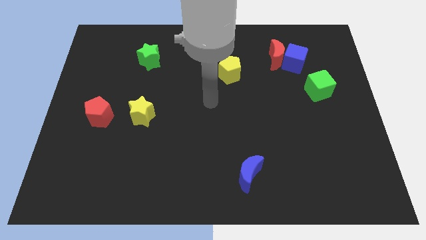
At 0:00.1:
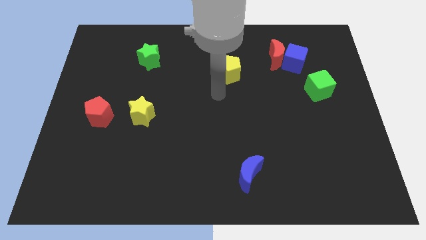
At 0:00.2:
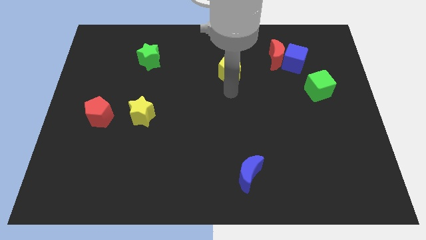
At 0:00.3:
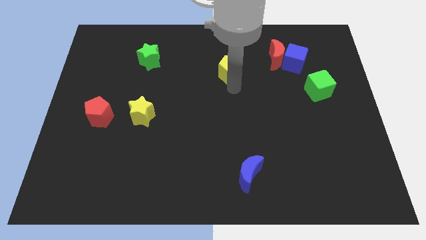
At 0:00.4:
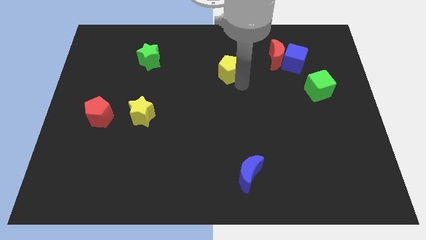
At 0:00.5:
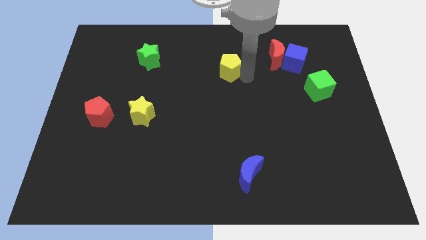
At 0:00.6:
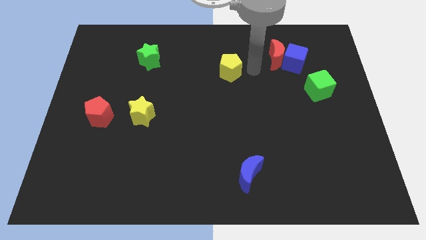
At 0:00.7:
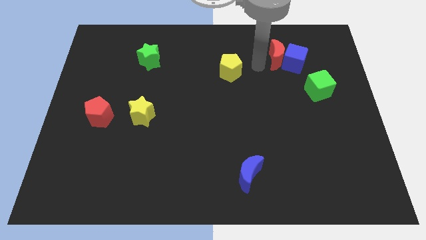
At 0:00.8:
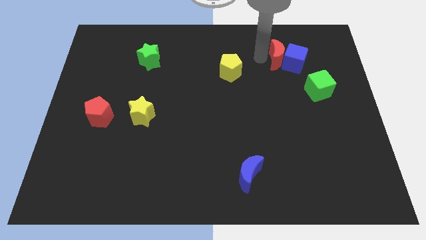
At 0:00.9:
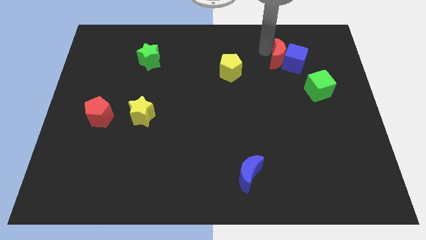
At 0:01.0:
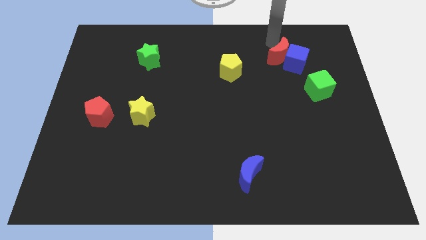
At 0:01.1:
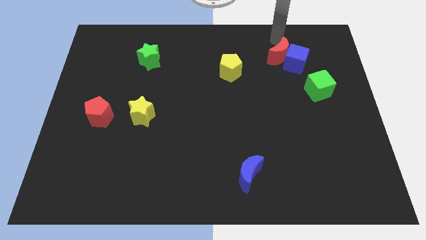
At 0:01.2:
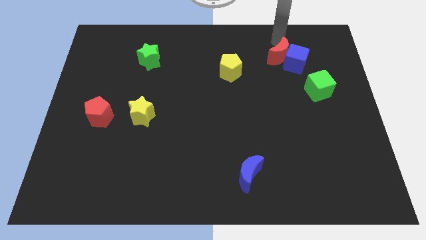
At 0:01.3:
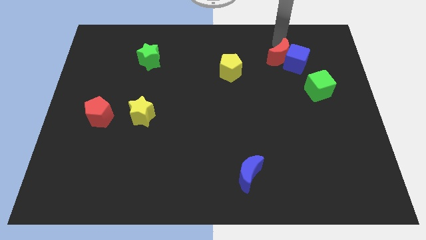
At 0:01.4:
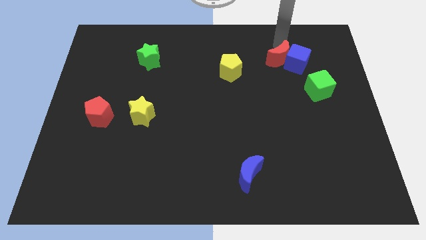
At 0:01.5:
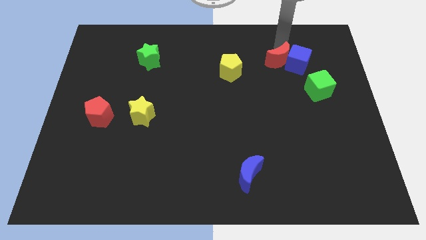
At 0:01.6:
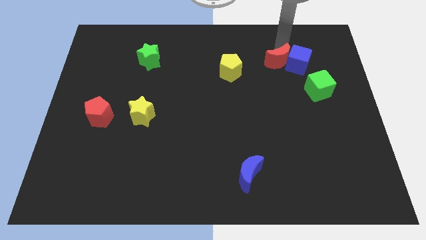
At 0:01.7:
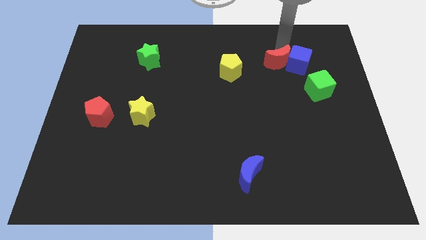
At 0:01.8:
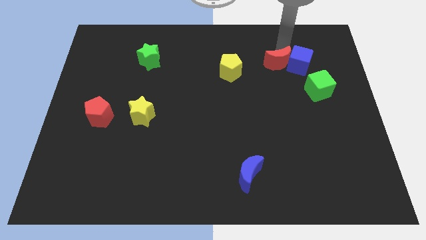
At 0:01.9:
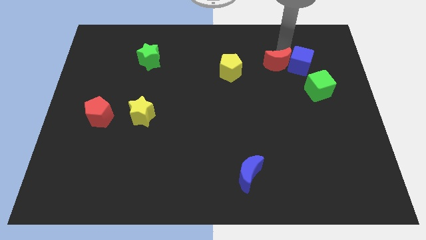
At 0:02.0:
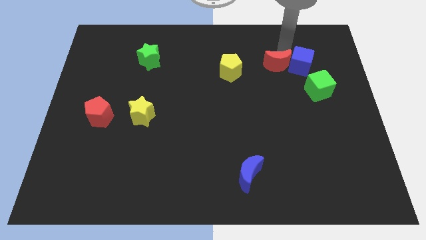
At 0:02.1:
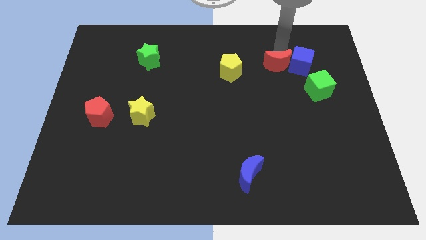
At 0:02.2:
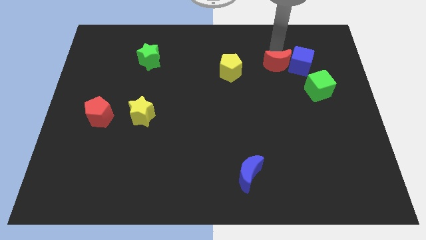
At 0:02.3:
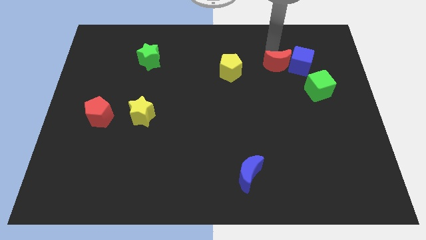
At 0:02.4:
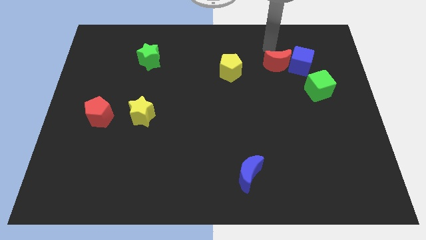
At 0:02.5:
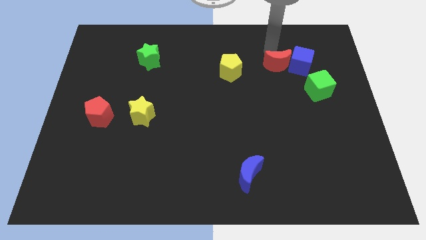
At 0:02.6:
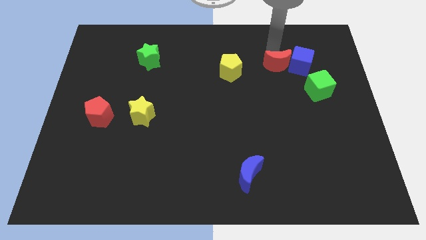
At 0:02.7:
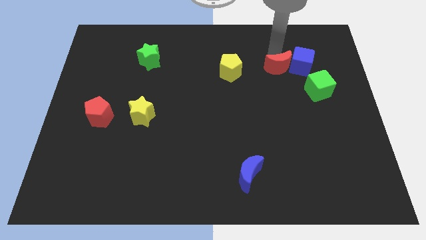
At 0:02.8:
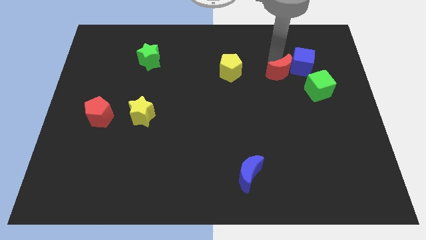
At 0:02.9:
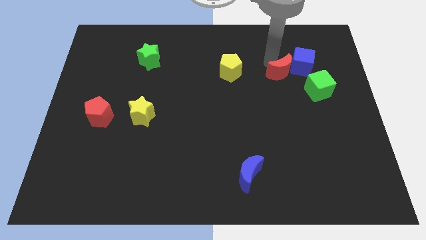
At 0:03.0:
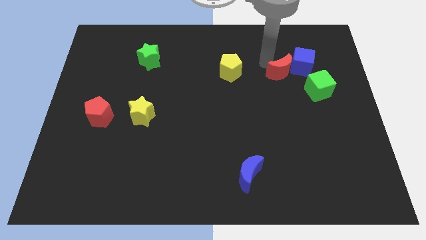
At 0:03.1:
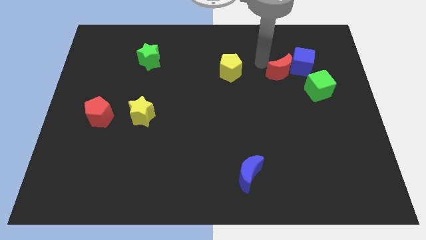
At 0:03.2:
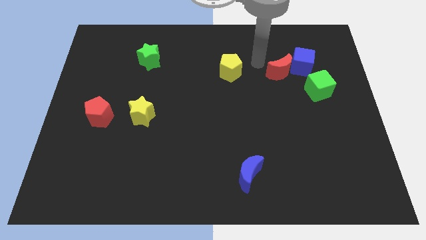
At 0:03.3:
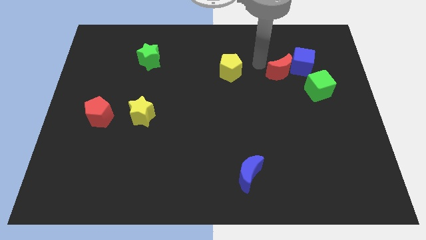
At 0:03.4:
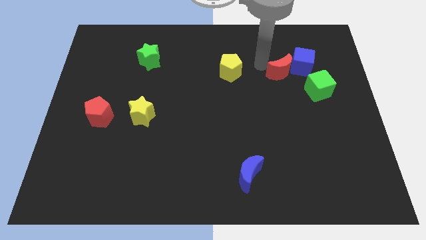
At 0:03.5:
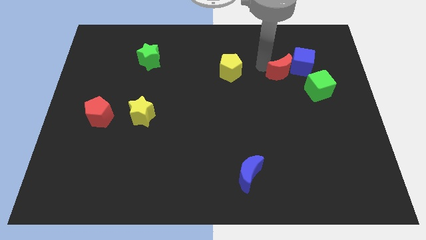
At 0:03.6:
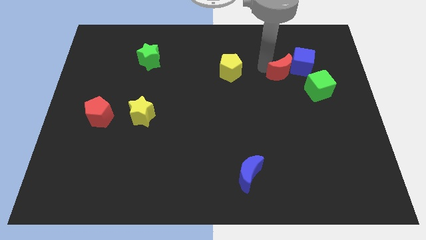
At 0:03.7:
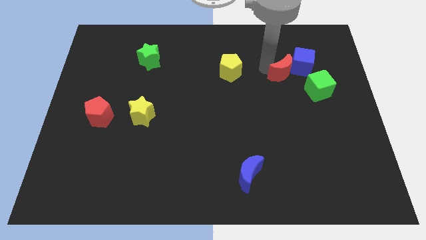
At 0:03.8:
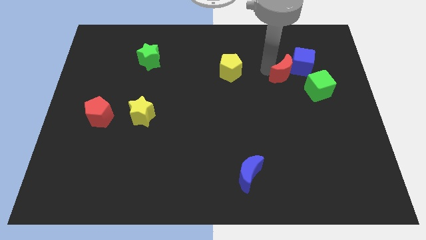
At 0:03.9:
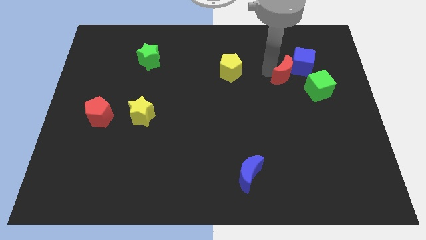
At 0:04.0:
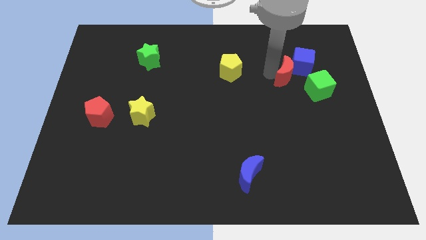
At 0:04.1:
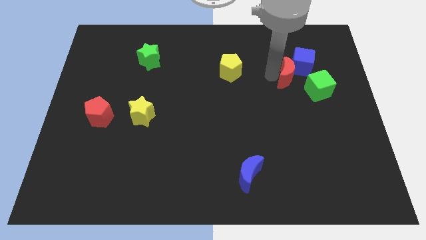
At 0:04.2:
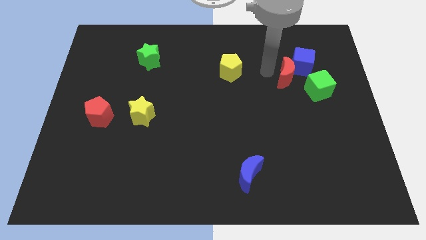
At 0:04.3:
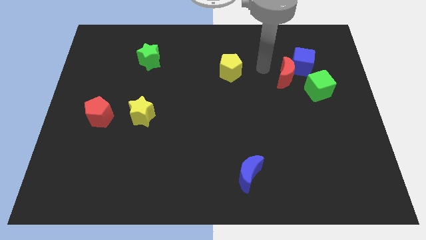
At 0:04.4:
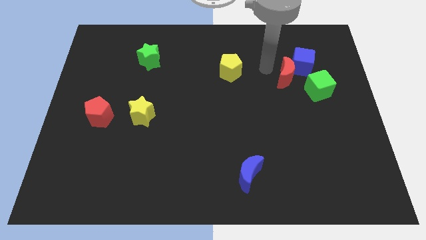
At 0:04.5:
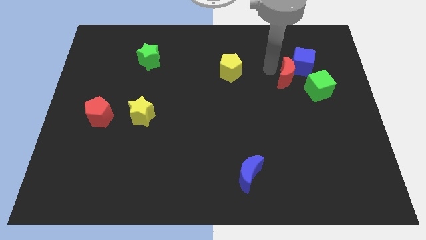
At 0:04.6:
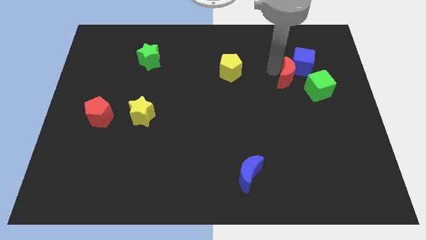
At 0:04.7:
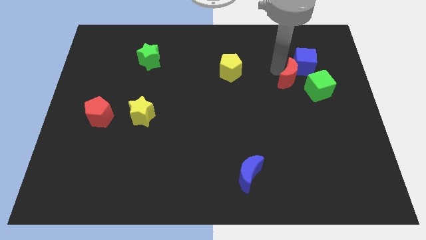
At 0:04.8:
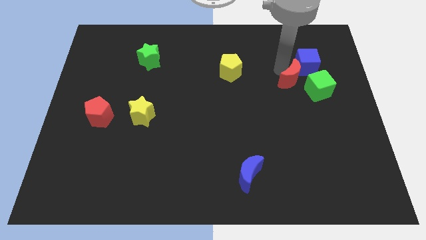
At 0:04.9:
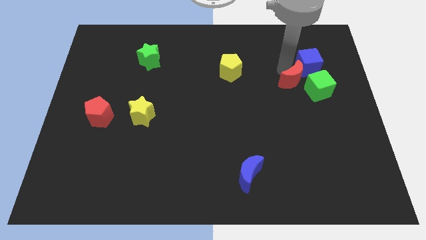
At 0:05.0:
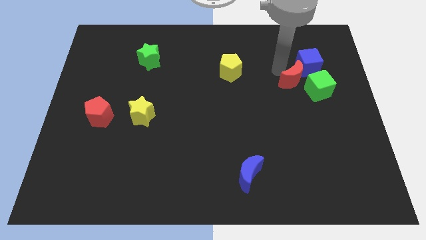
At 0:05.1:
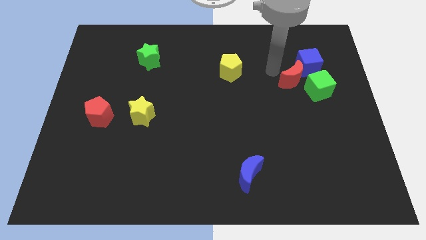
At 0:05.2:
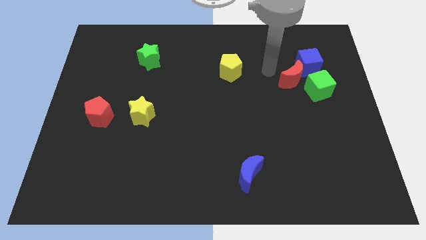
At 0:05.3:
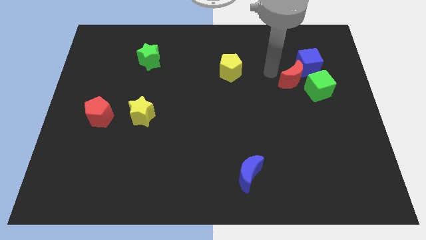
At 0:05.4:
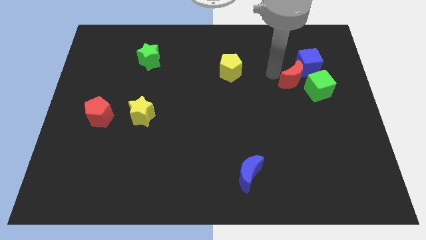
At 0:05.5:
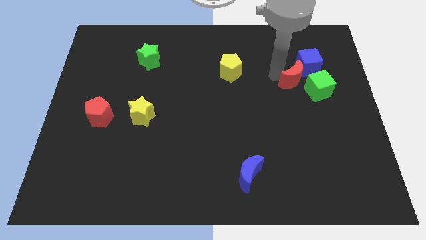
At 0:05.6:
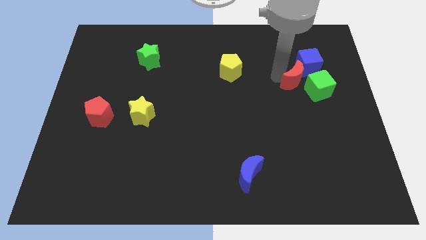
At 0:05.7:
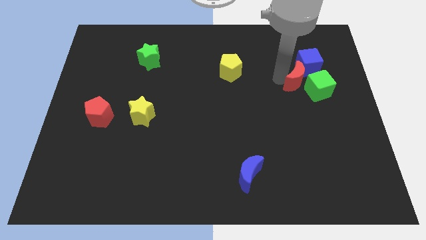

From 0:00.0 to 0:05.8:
slide the red moon next to the green cube

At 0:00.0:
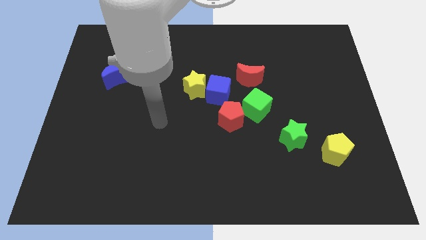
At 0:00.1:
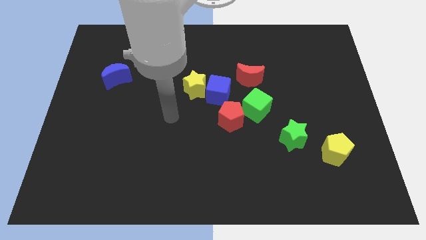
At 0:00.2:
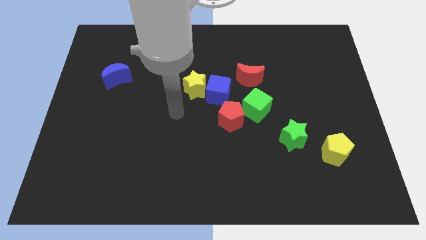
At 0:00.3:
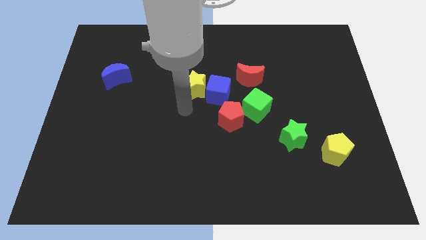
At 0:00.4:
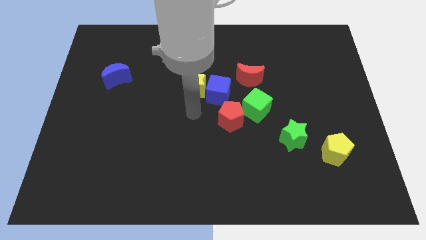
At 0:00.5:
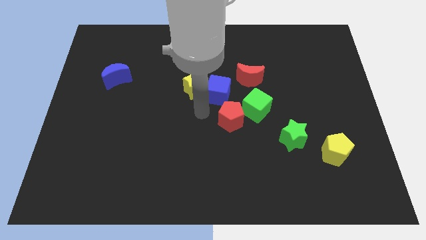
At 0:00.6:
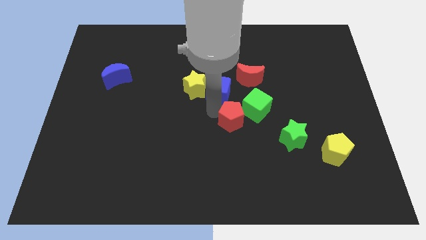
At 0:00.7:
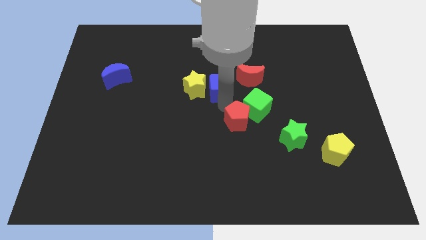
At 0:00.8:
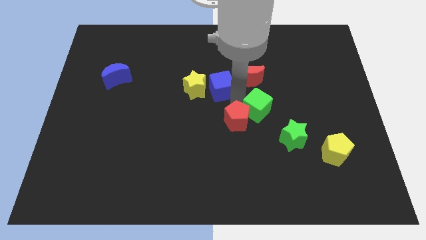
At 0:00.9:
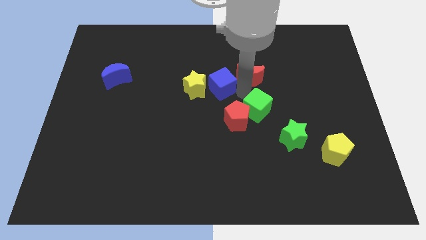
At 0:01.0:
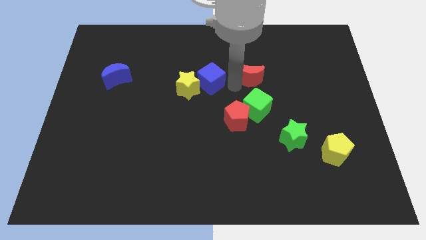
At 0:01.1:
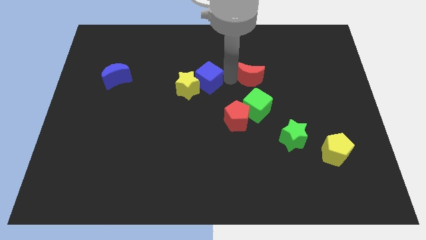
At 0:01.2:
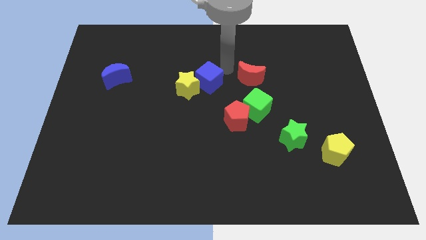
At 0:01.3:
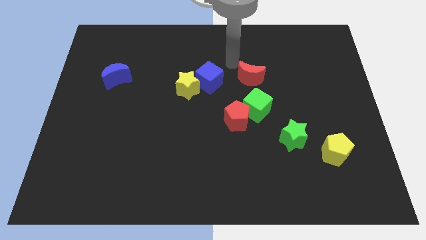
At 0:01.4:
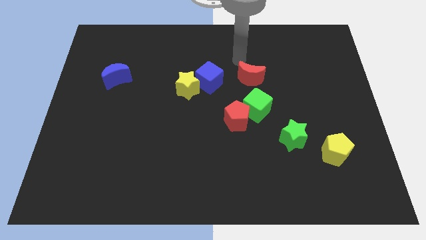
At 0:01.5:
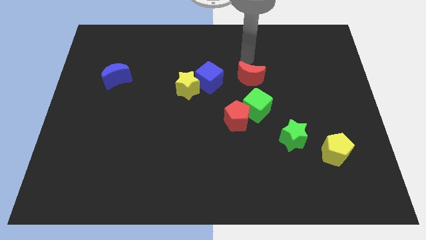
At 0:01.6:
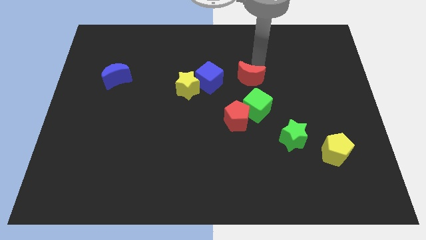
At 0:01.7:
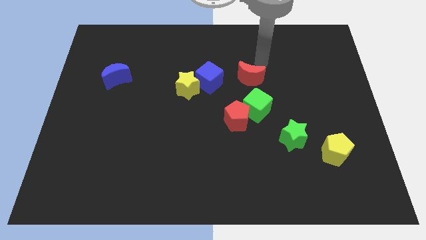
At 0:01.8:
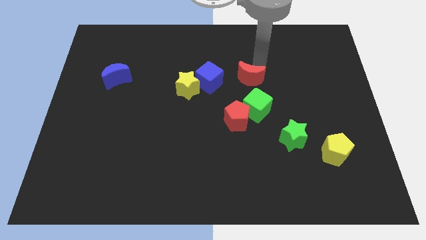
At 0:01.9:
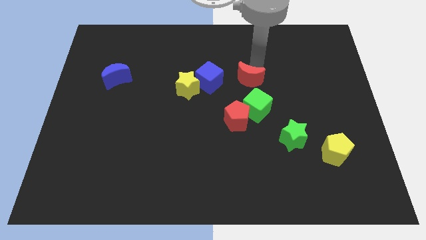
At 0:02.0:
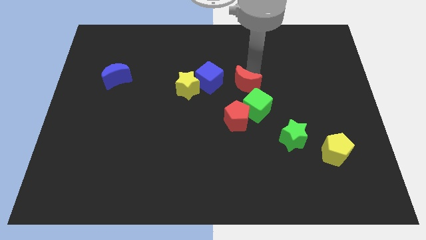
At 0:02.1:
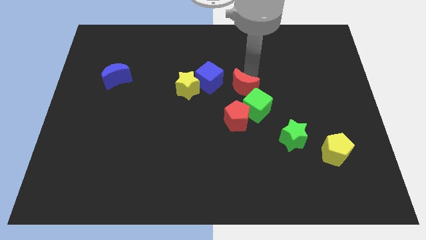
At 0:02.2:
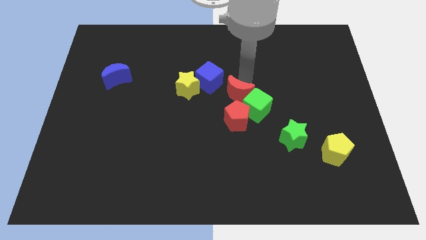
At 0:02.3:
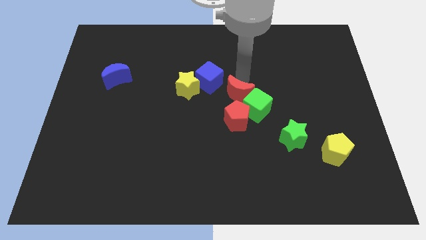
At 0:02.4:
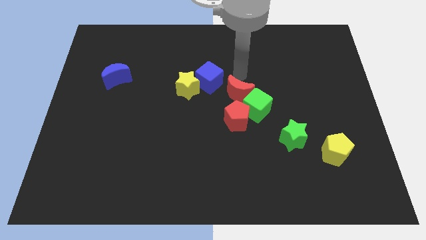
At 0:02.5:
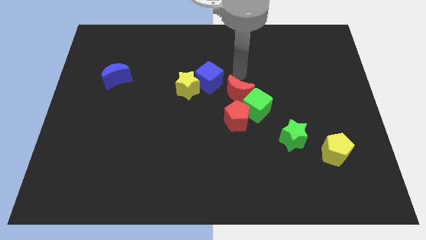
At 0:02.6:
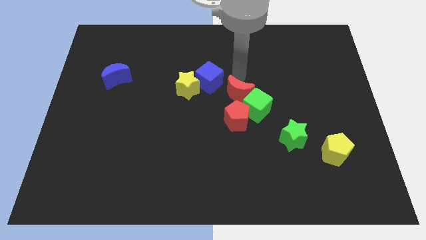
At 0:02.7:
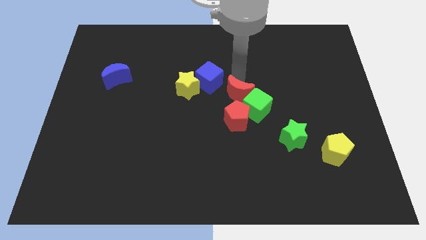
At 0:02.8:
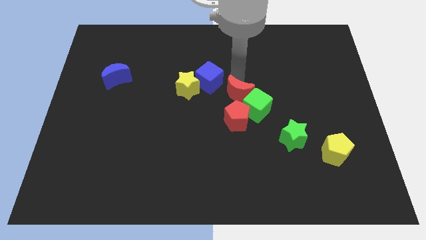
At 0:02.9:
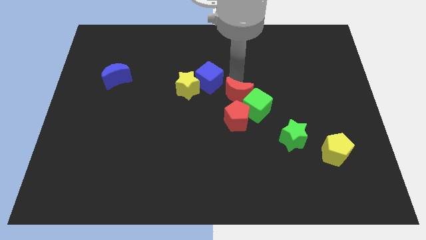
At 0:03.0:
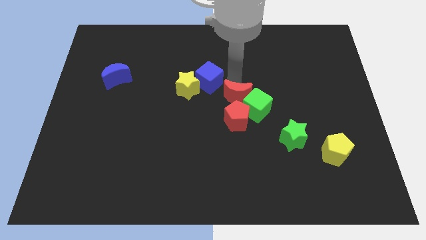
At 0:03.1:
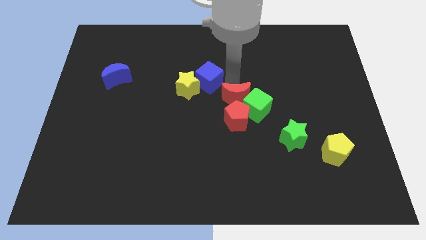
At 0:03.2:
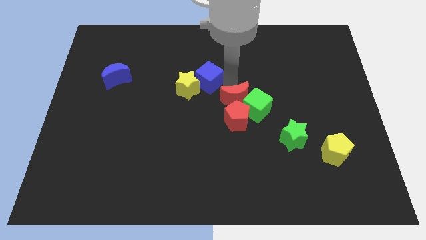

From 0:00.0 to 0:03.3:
slide the red moon next to the red pentagon
